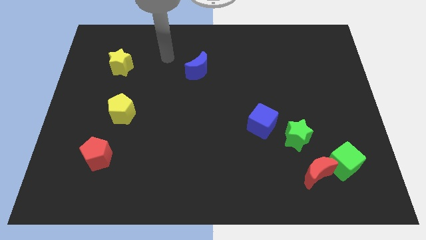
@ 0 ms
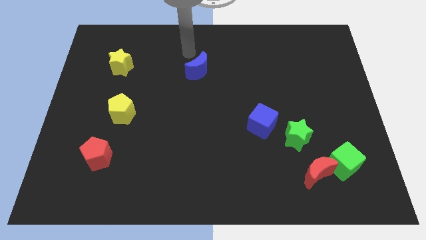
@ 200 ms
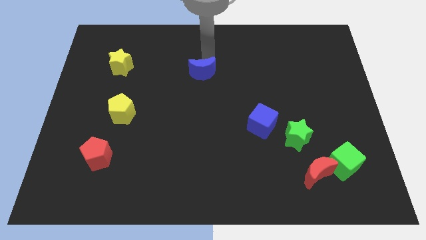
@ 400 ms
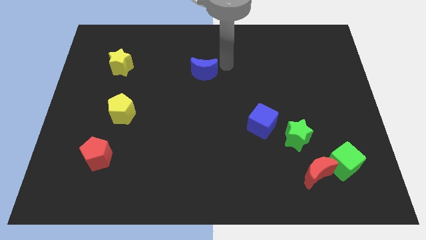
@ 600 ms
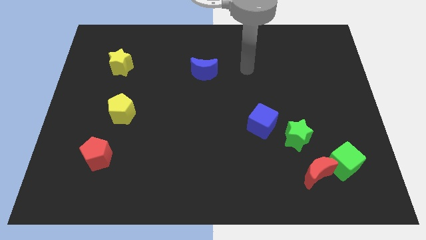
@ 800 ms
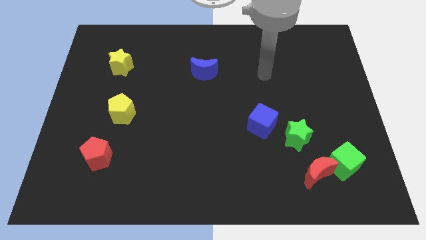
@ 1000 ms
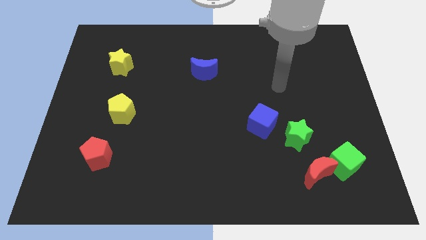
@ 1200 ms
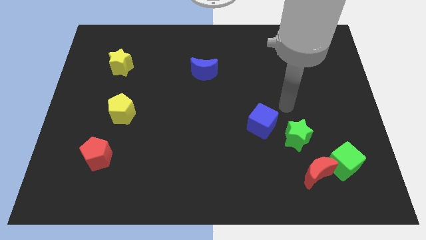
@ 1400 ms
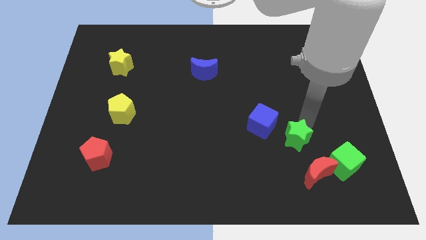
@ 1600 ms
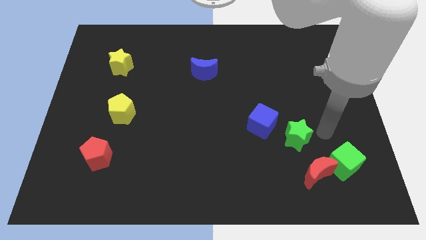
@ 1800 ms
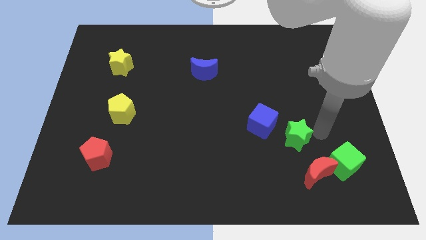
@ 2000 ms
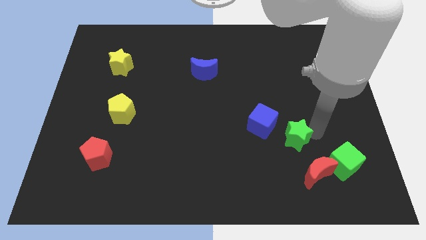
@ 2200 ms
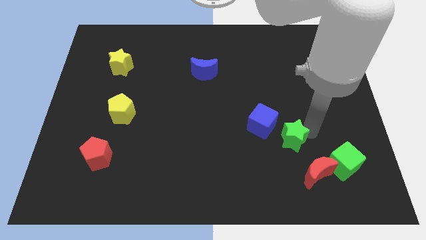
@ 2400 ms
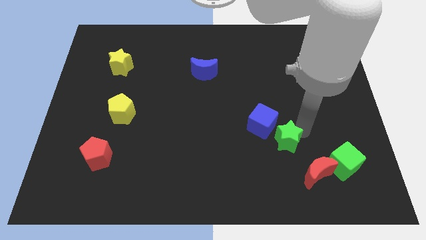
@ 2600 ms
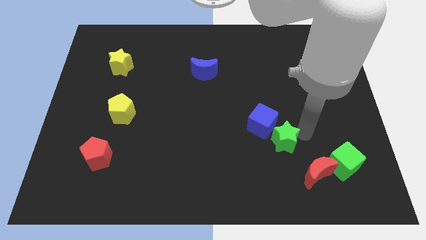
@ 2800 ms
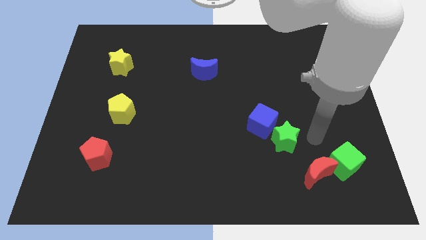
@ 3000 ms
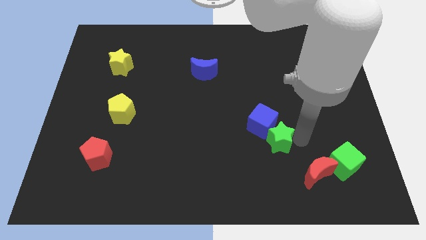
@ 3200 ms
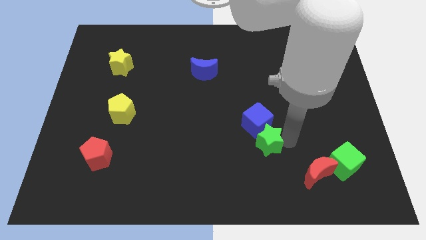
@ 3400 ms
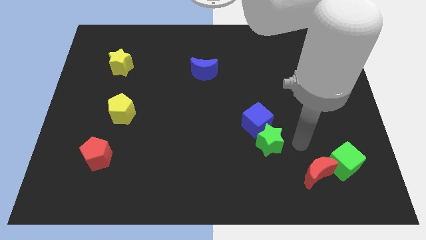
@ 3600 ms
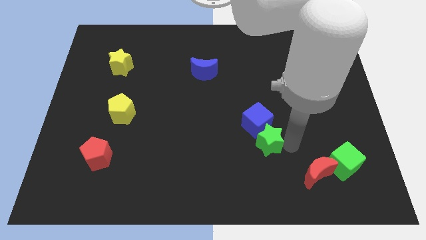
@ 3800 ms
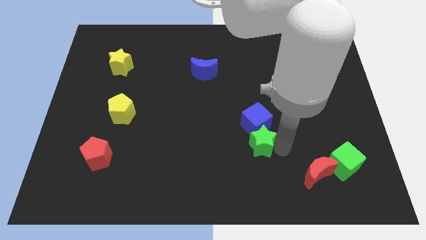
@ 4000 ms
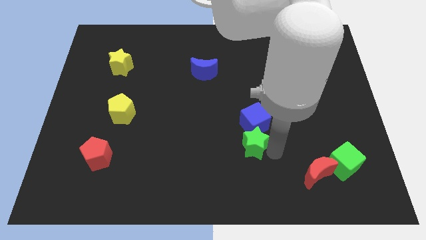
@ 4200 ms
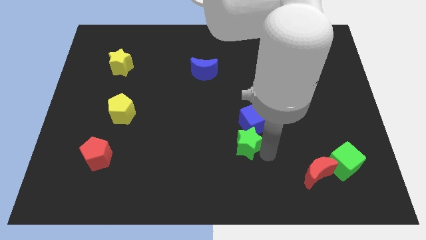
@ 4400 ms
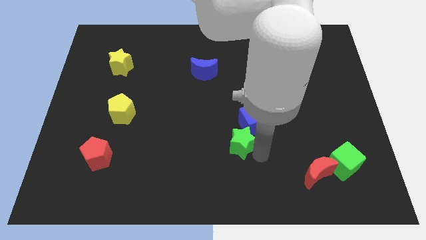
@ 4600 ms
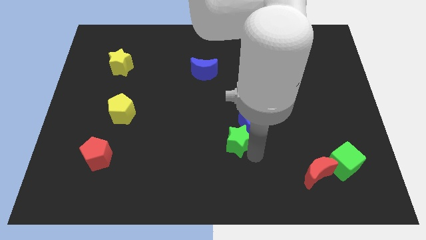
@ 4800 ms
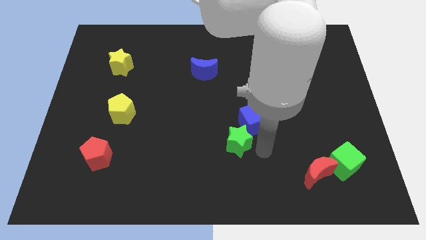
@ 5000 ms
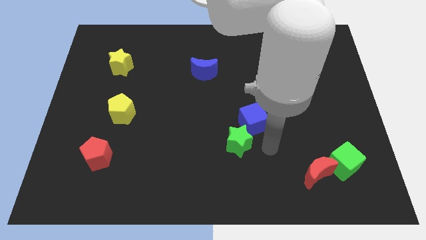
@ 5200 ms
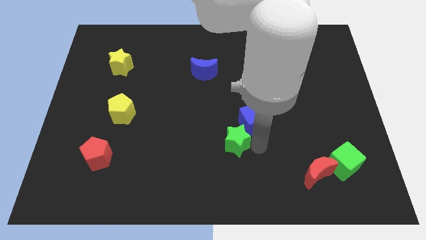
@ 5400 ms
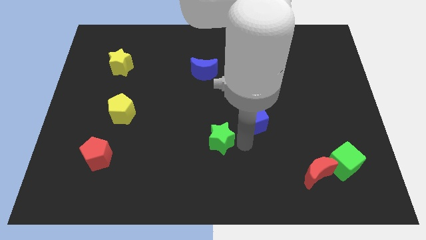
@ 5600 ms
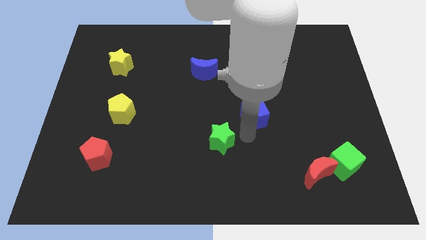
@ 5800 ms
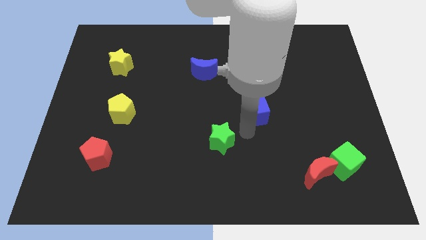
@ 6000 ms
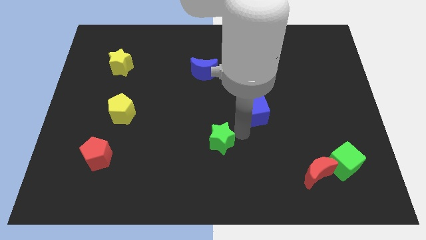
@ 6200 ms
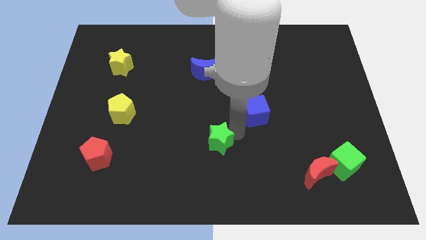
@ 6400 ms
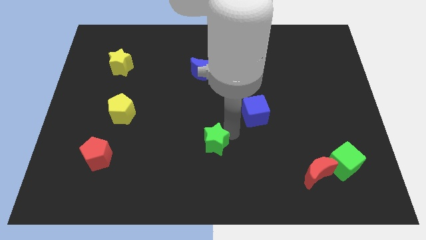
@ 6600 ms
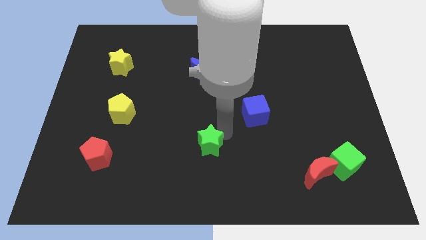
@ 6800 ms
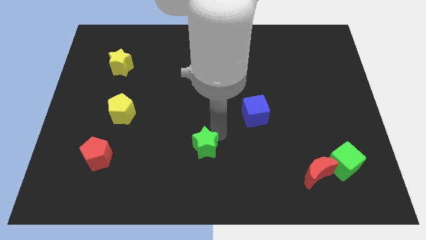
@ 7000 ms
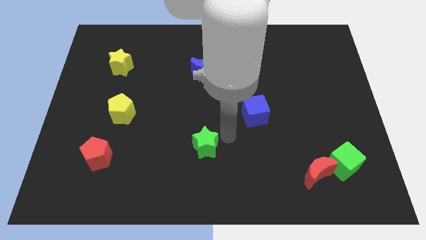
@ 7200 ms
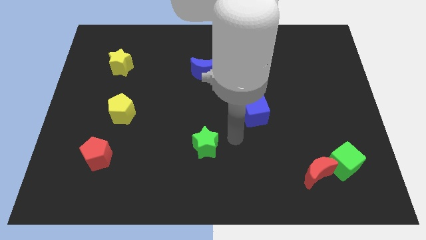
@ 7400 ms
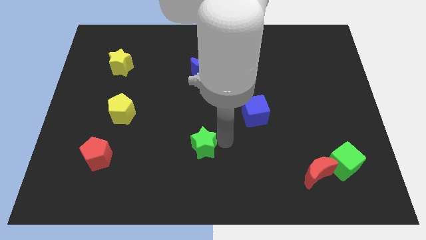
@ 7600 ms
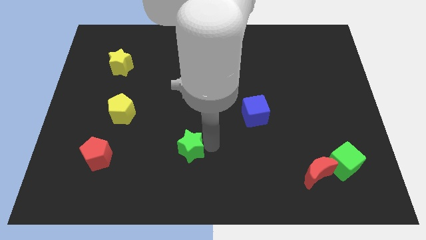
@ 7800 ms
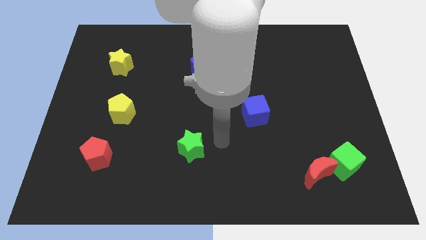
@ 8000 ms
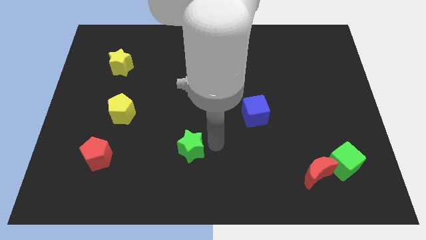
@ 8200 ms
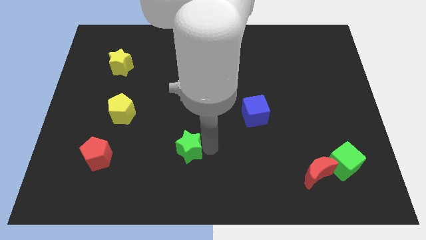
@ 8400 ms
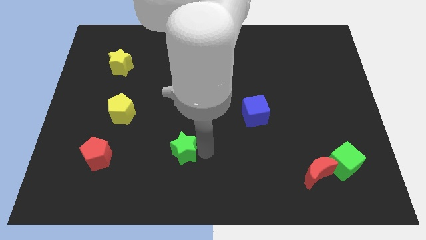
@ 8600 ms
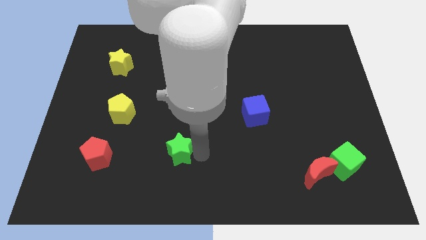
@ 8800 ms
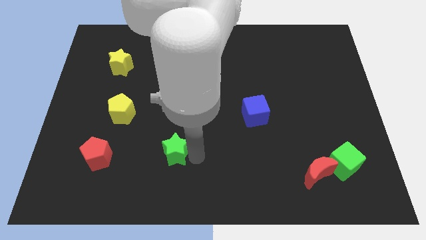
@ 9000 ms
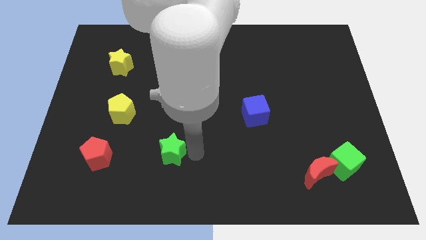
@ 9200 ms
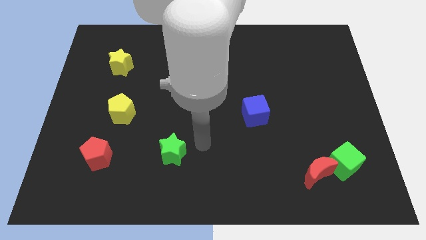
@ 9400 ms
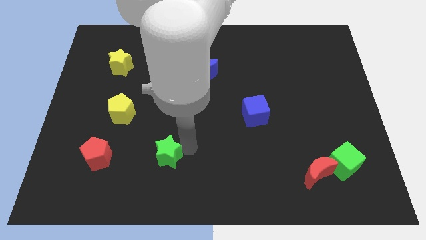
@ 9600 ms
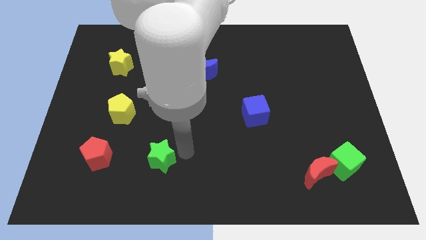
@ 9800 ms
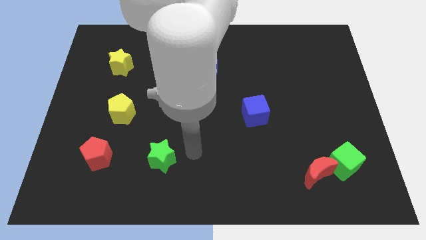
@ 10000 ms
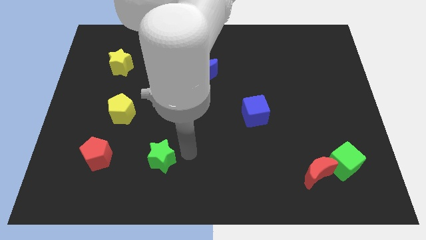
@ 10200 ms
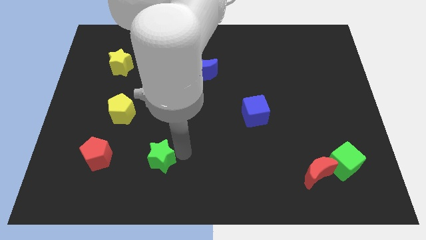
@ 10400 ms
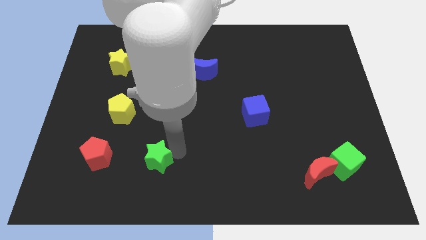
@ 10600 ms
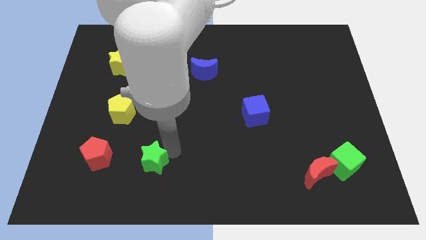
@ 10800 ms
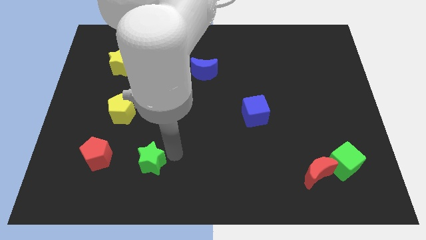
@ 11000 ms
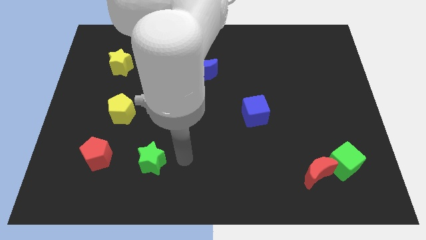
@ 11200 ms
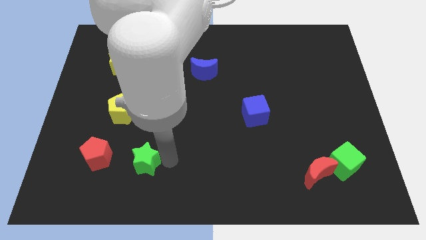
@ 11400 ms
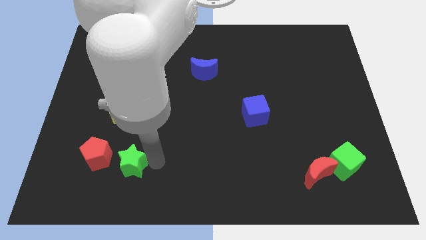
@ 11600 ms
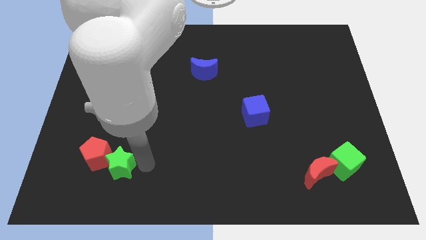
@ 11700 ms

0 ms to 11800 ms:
put the green star to the red pentagon
